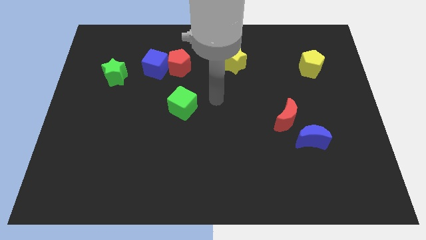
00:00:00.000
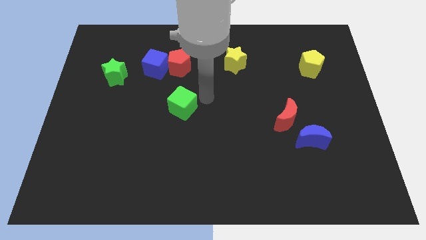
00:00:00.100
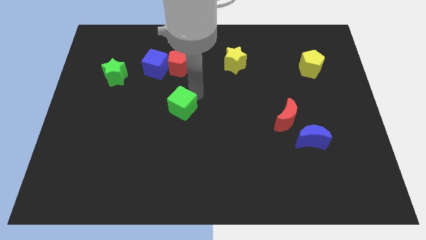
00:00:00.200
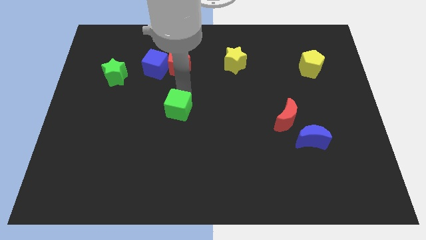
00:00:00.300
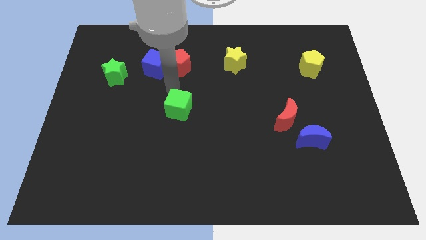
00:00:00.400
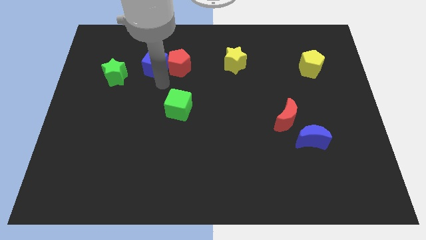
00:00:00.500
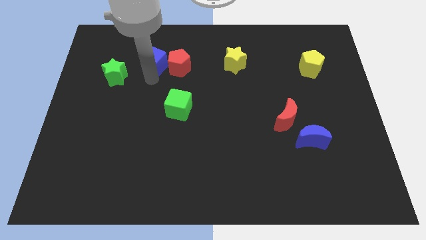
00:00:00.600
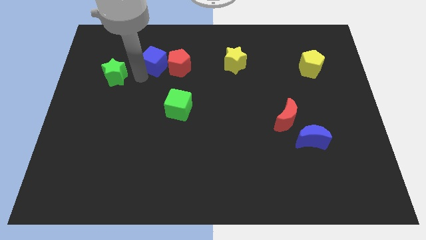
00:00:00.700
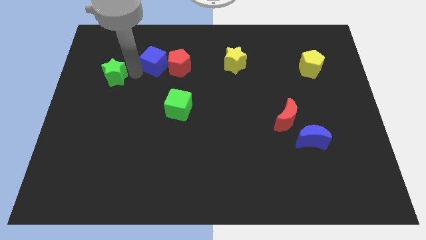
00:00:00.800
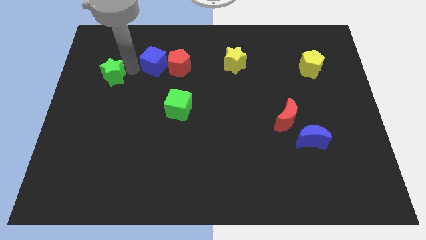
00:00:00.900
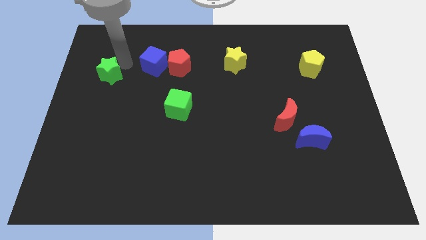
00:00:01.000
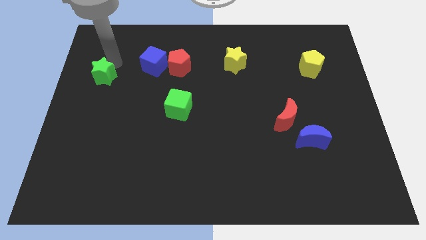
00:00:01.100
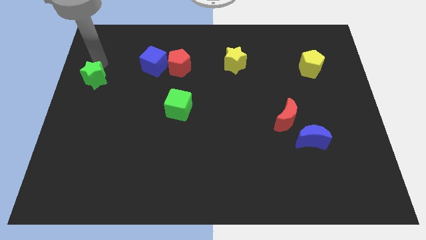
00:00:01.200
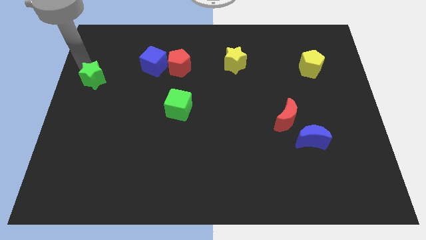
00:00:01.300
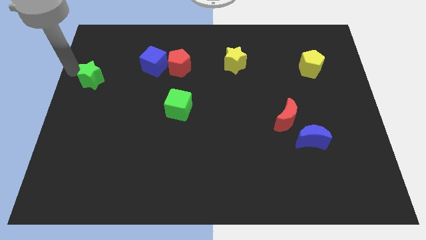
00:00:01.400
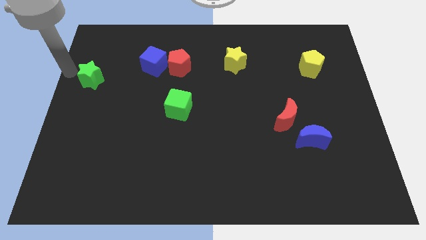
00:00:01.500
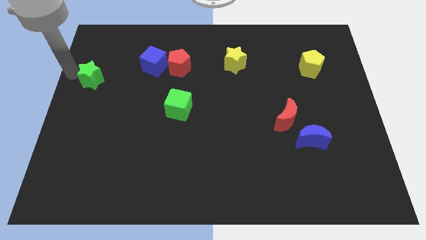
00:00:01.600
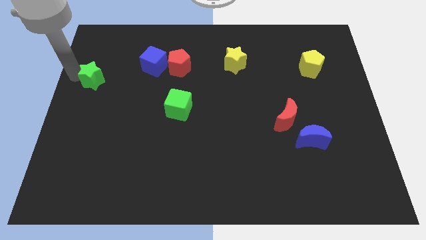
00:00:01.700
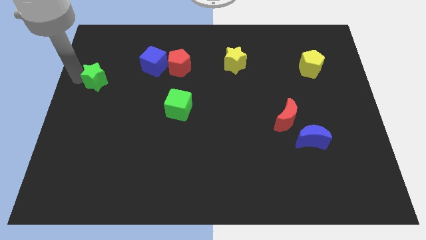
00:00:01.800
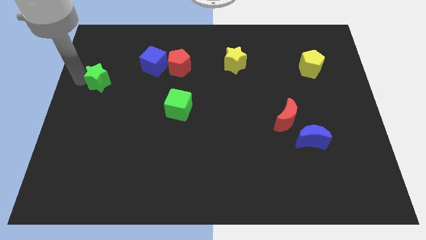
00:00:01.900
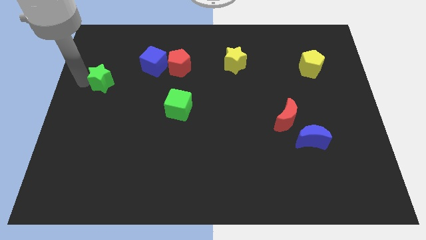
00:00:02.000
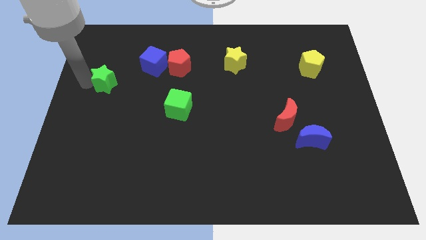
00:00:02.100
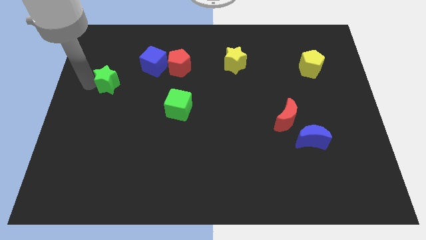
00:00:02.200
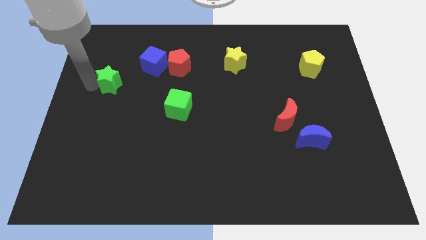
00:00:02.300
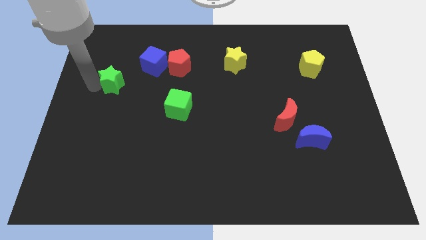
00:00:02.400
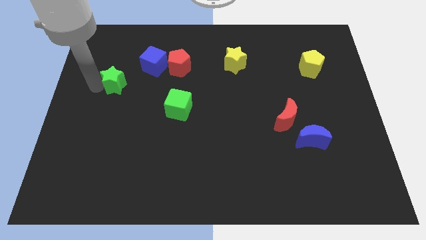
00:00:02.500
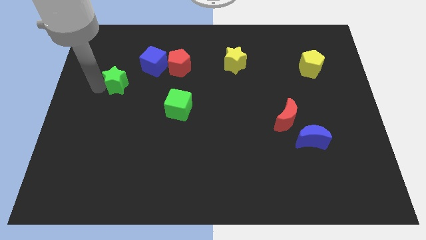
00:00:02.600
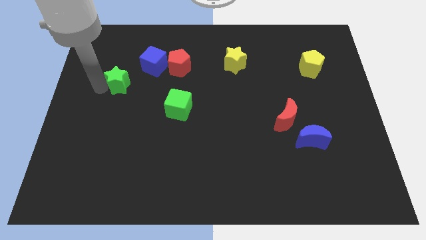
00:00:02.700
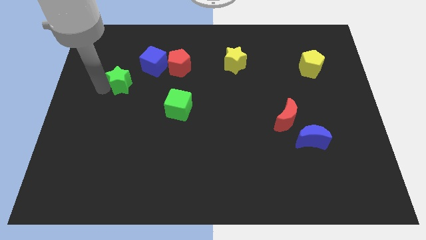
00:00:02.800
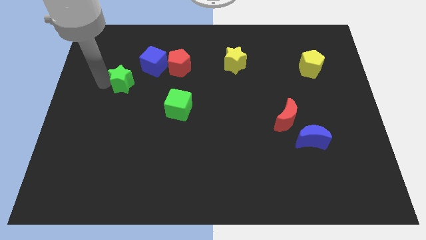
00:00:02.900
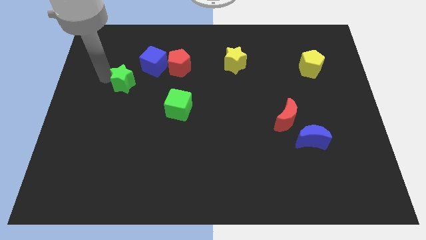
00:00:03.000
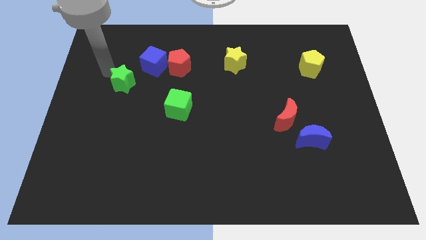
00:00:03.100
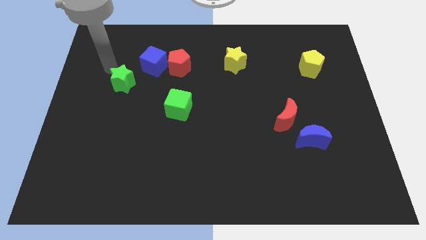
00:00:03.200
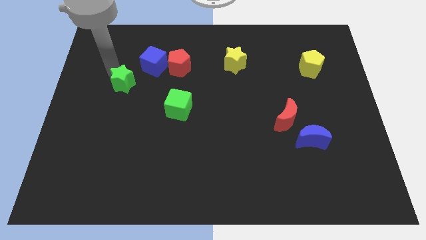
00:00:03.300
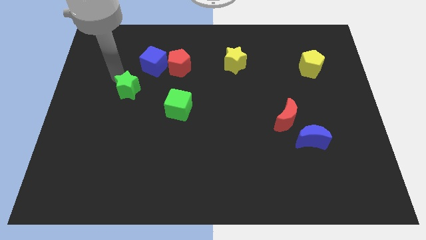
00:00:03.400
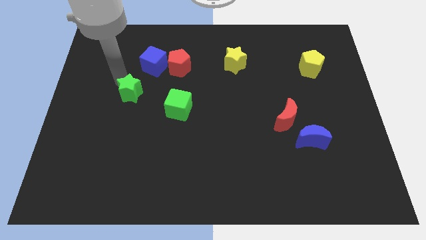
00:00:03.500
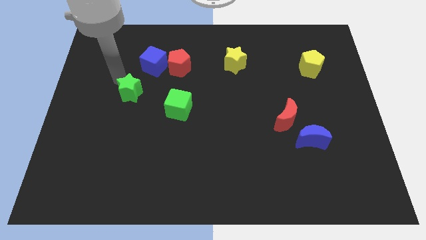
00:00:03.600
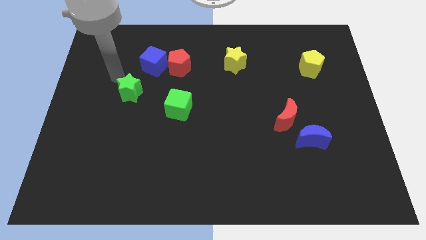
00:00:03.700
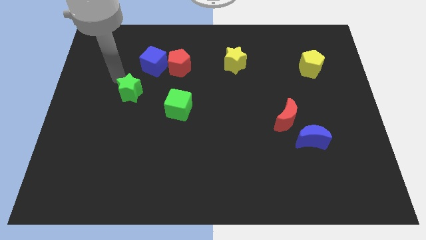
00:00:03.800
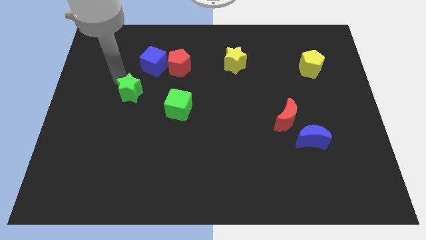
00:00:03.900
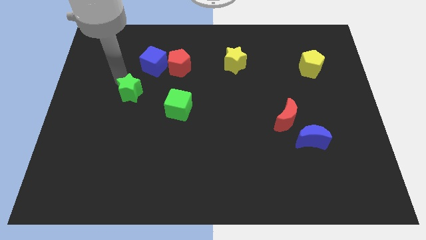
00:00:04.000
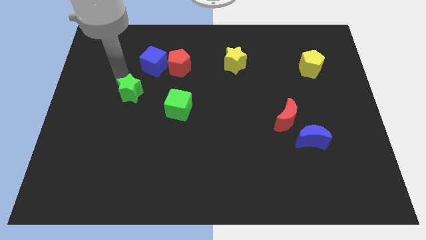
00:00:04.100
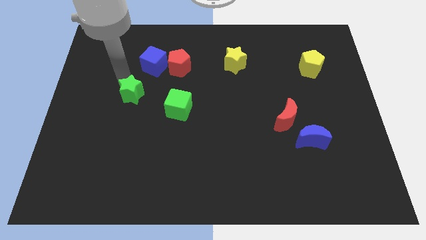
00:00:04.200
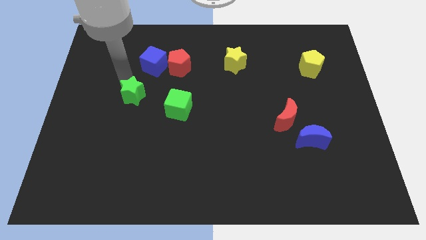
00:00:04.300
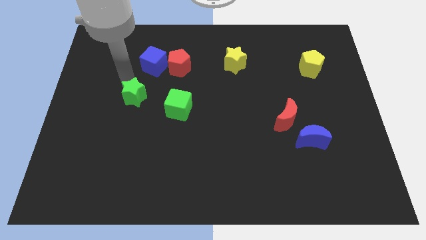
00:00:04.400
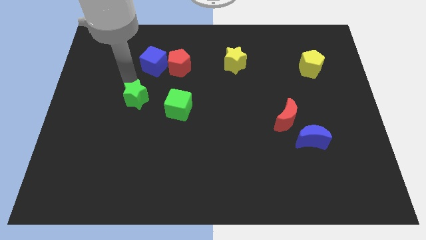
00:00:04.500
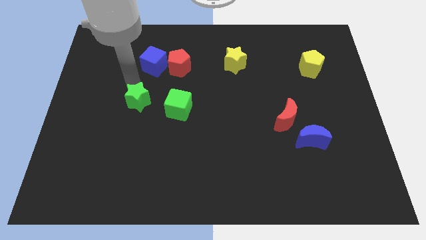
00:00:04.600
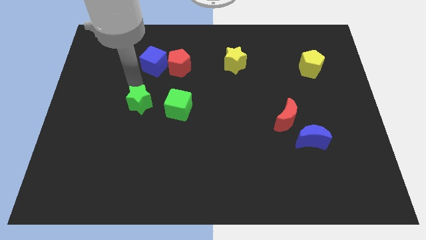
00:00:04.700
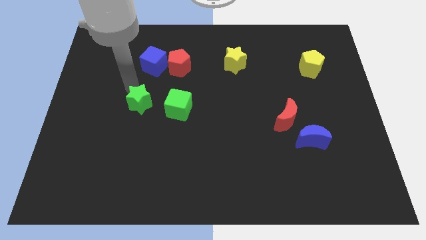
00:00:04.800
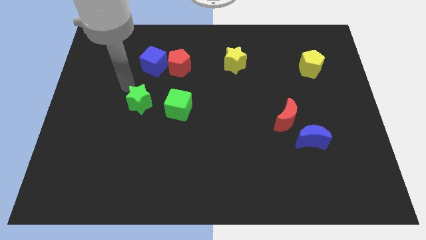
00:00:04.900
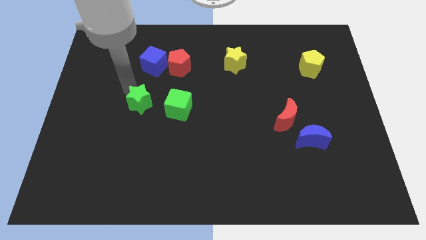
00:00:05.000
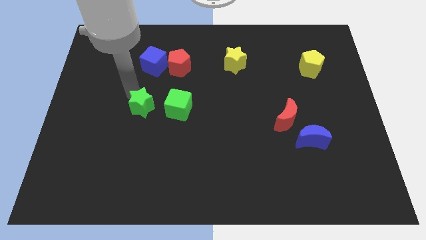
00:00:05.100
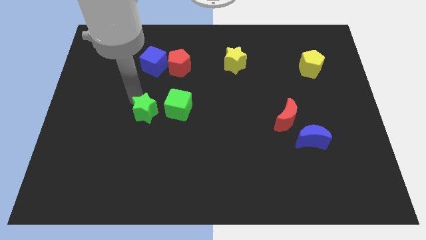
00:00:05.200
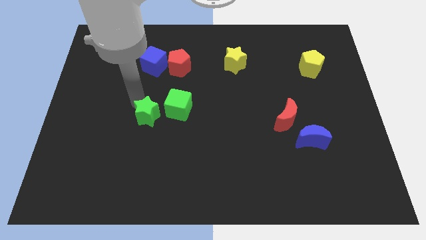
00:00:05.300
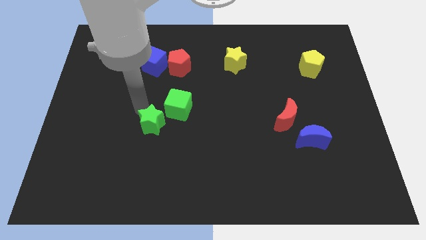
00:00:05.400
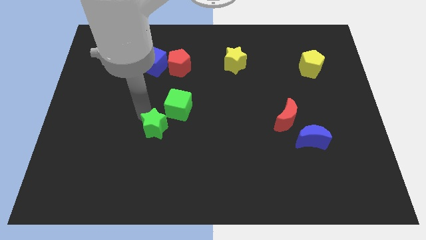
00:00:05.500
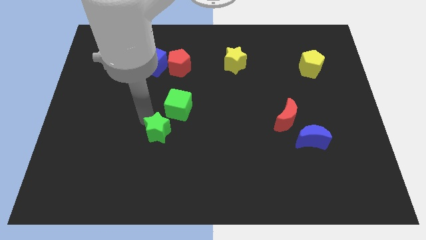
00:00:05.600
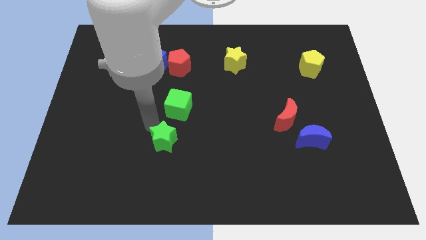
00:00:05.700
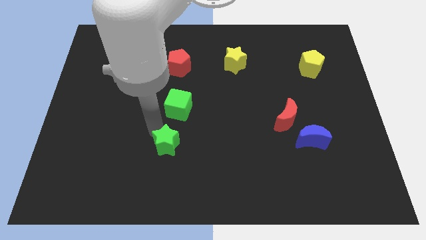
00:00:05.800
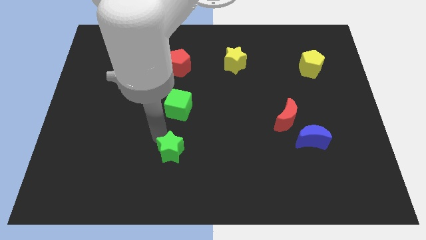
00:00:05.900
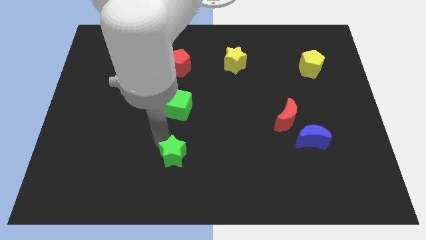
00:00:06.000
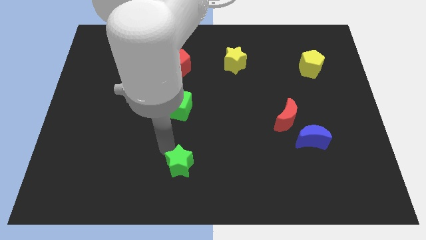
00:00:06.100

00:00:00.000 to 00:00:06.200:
push the green star to the bottom side
